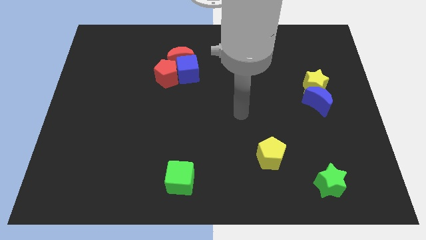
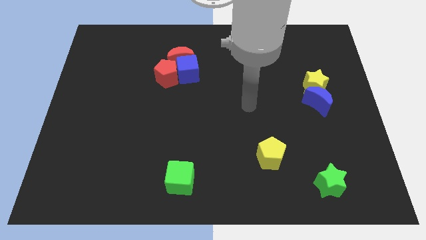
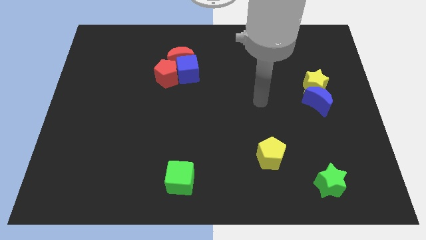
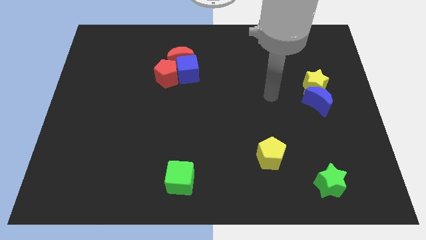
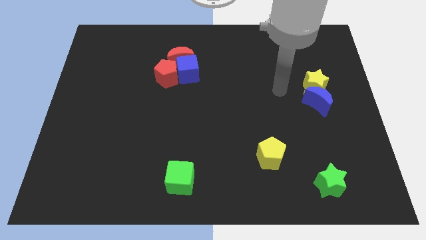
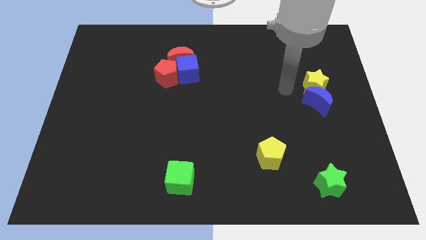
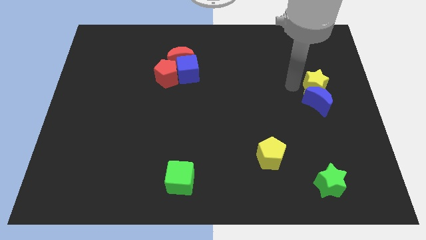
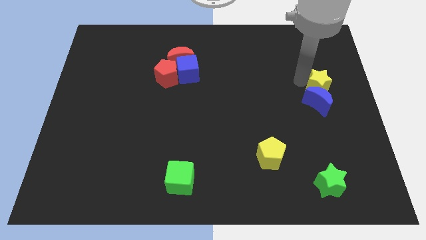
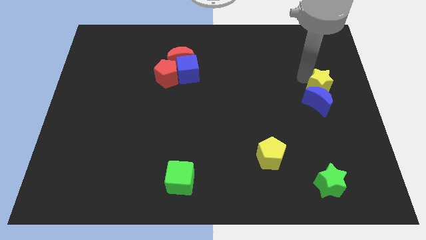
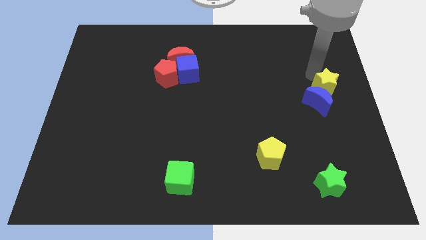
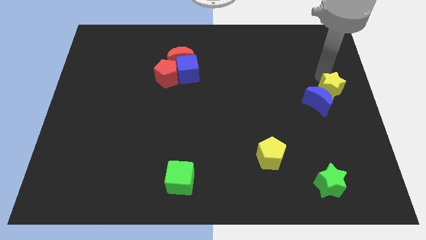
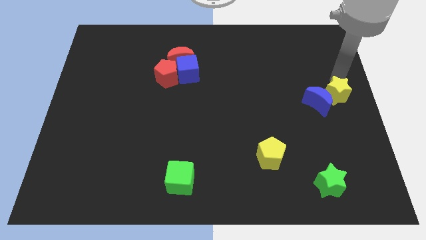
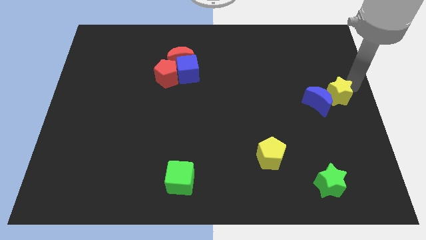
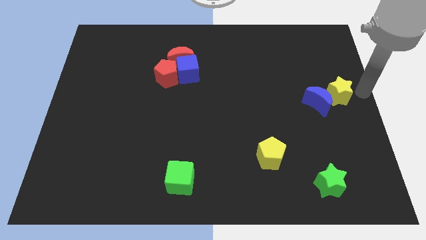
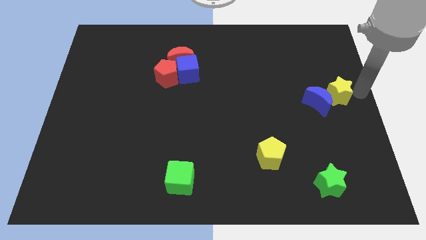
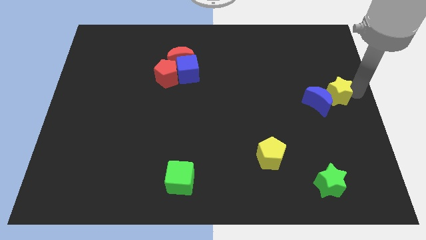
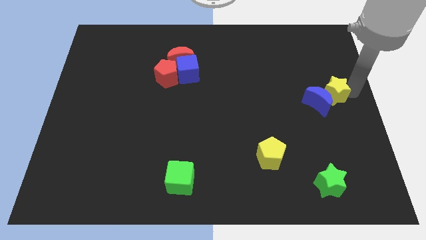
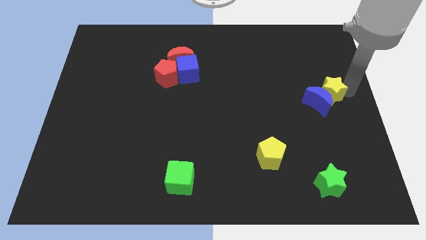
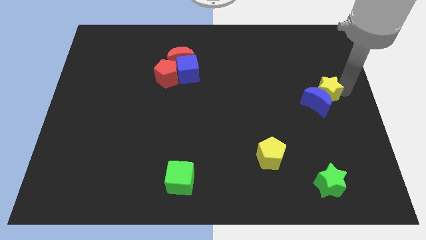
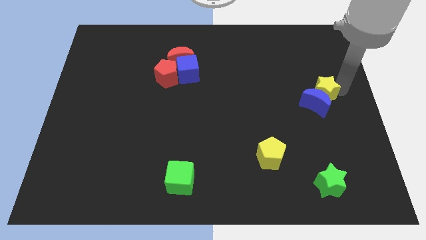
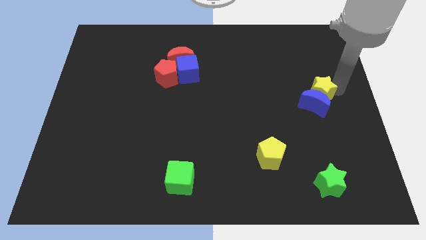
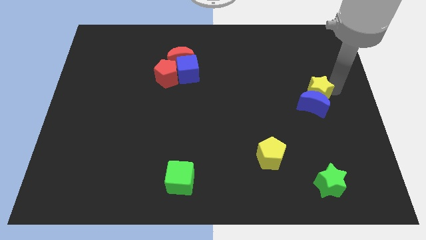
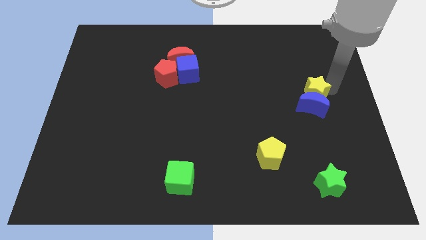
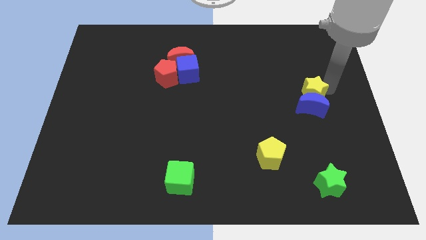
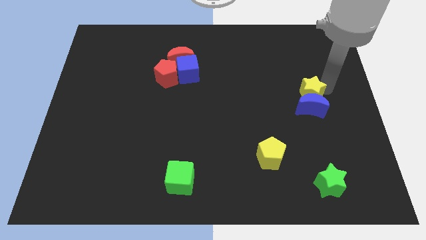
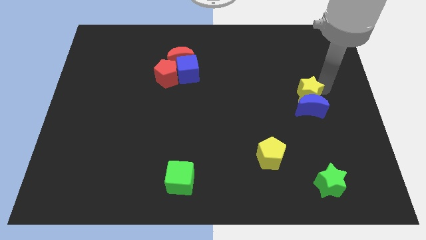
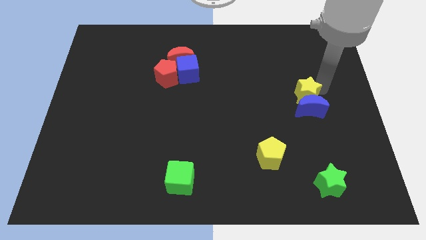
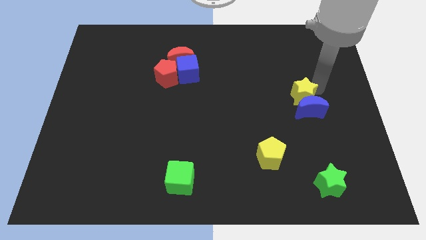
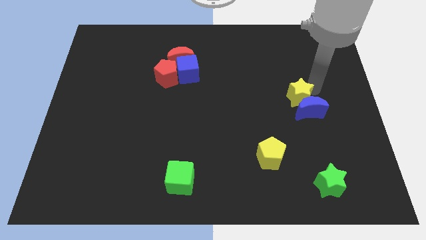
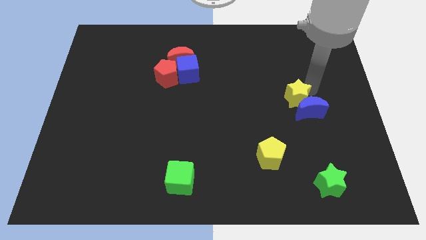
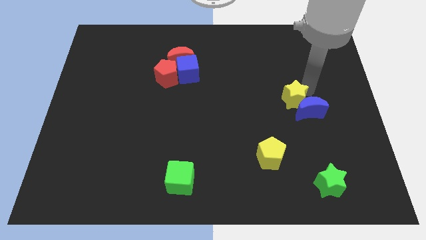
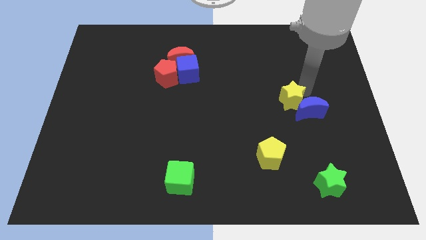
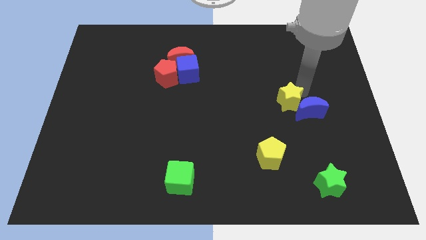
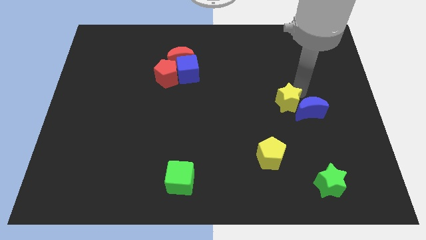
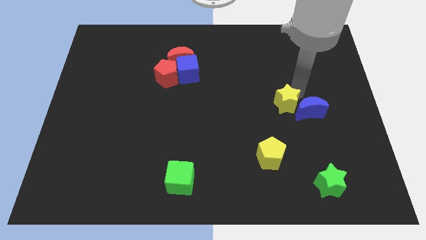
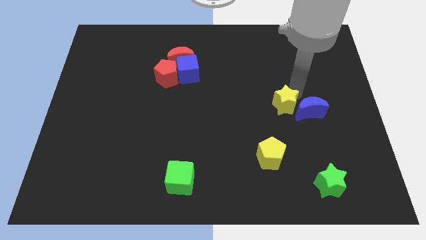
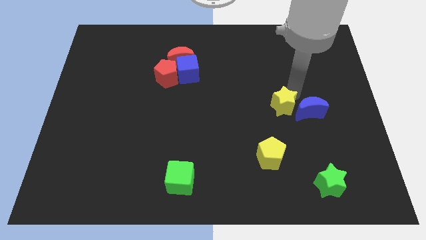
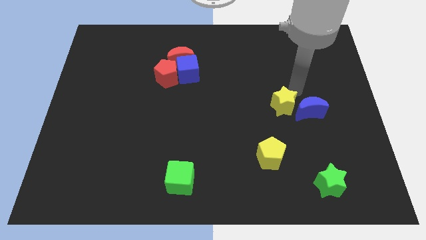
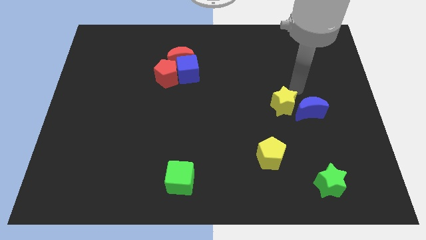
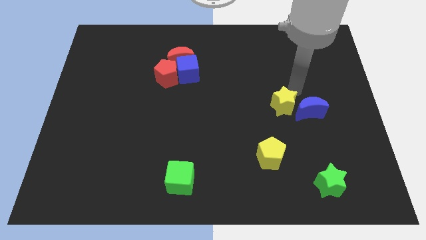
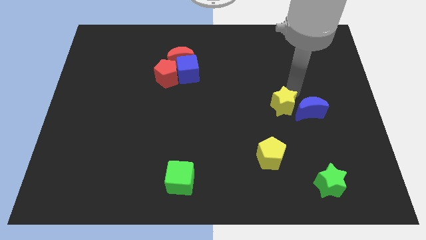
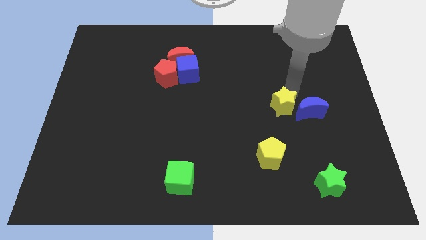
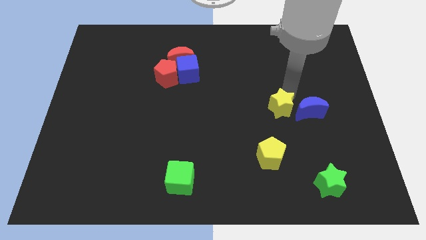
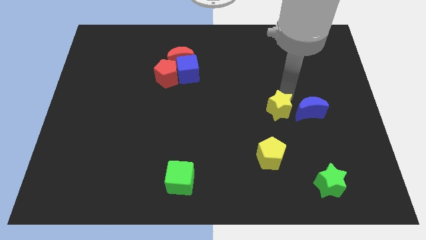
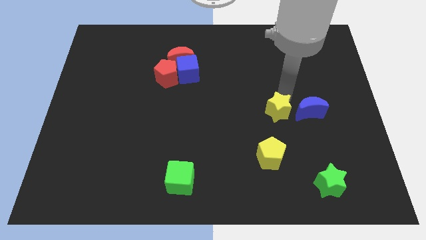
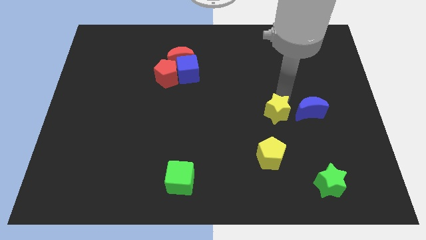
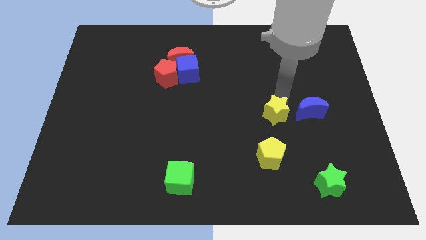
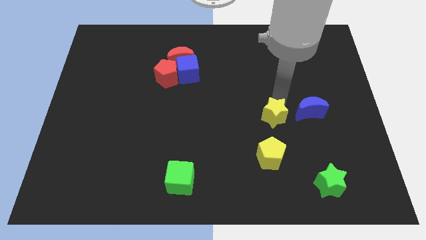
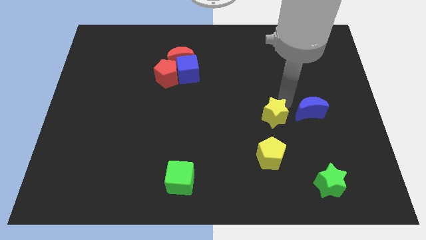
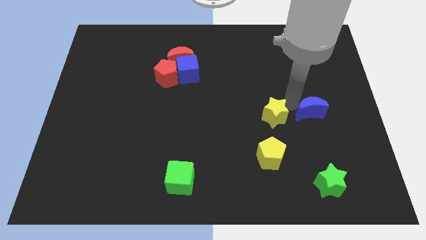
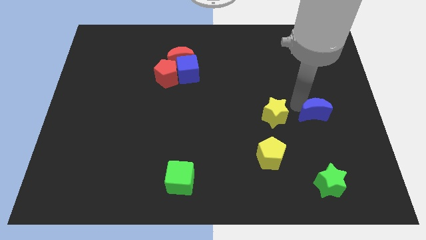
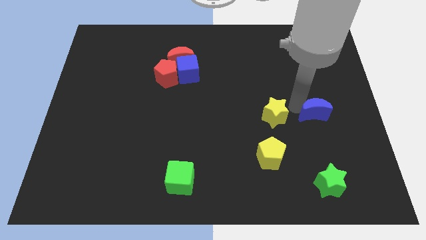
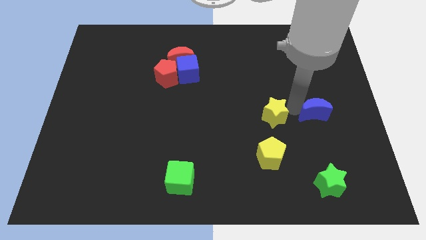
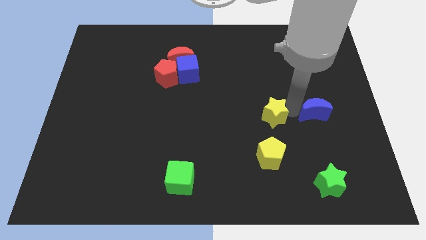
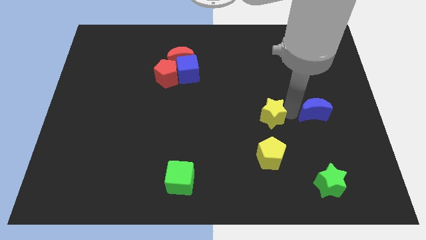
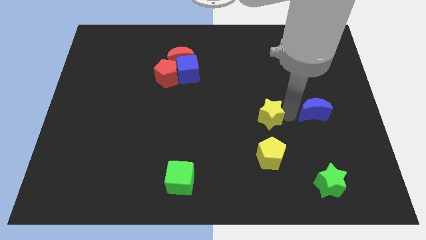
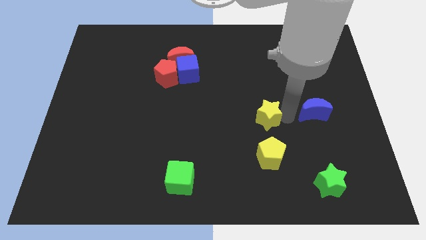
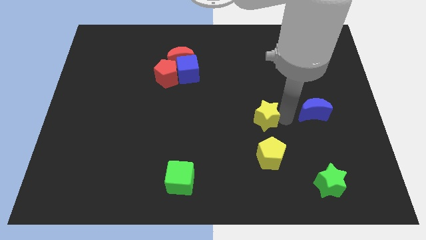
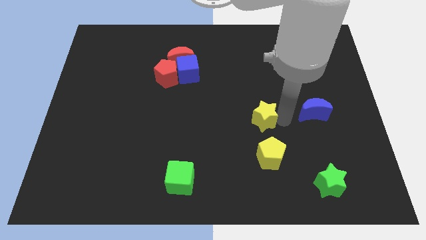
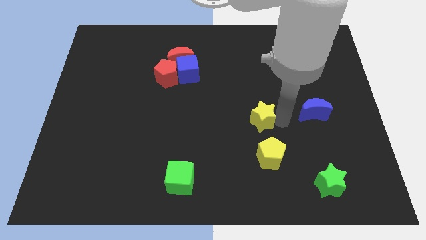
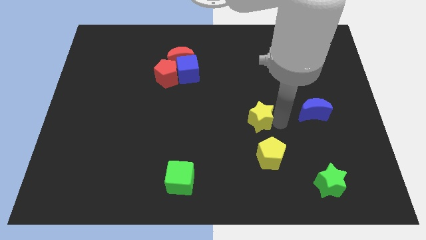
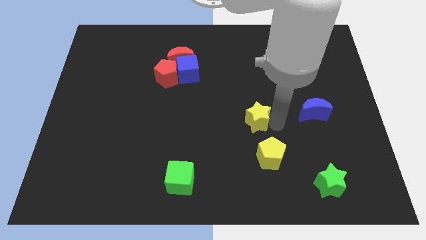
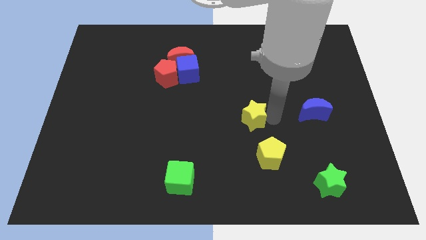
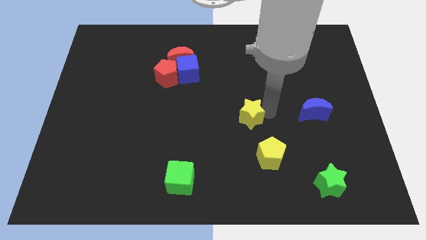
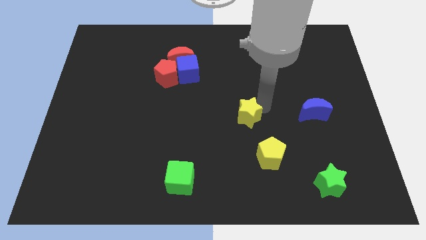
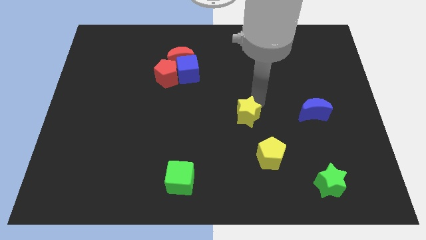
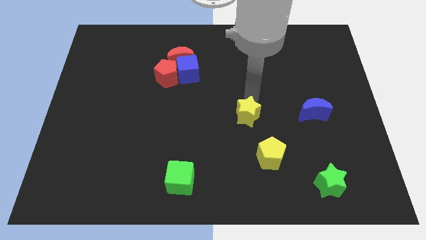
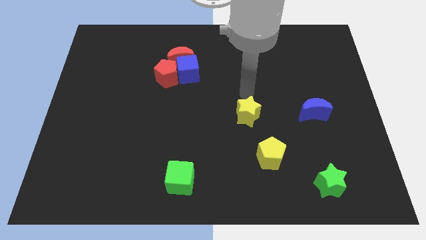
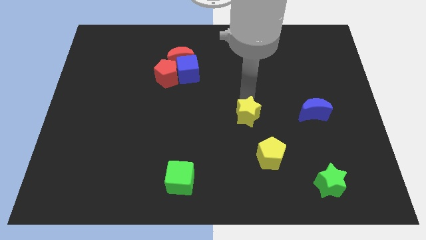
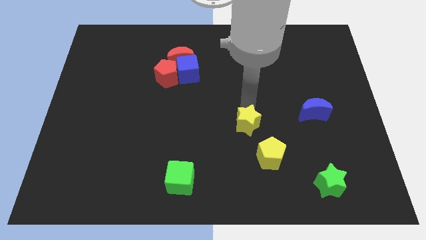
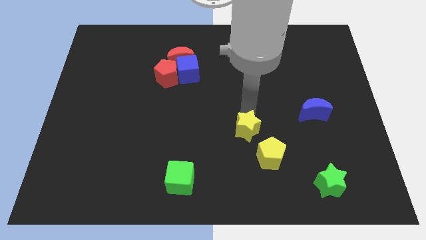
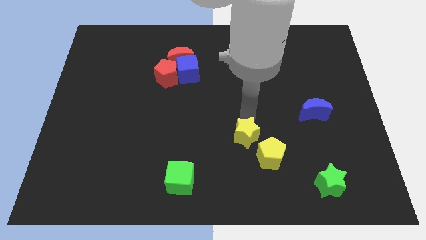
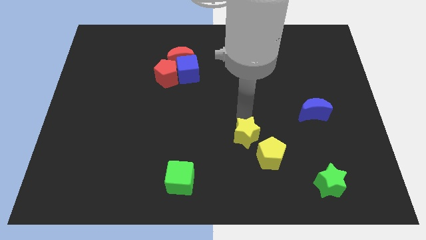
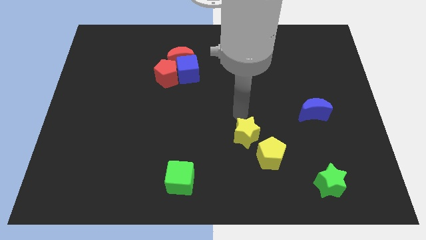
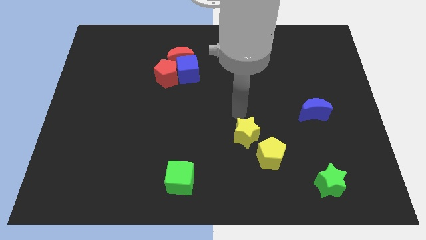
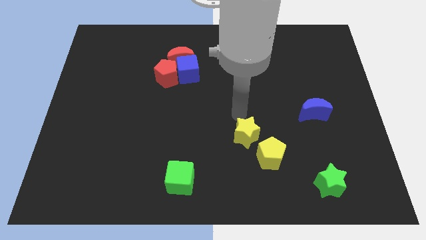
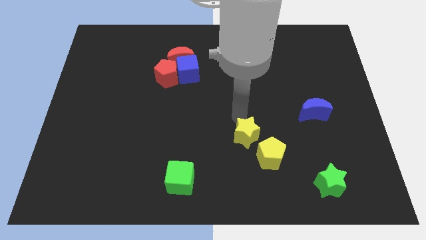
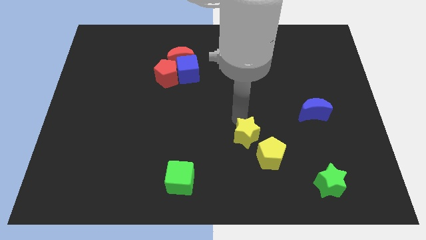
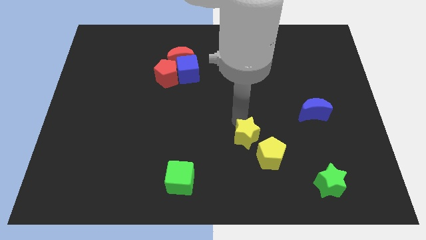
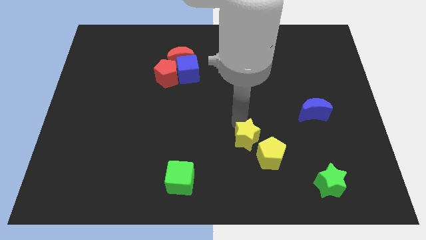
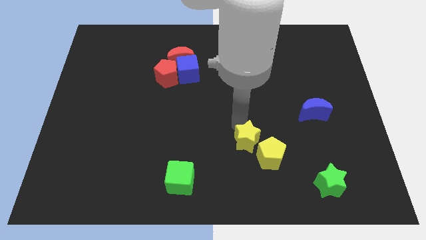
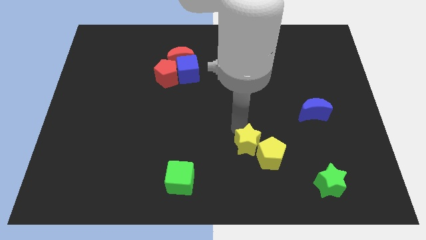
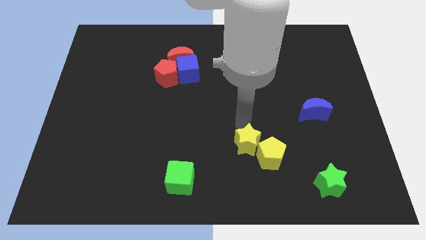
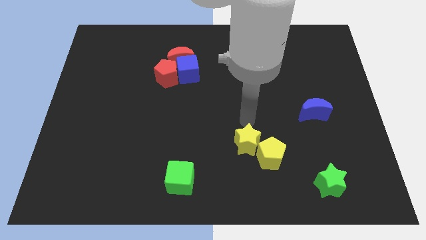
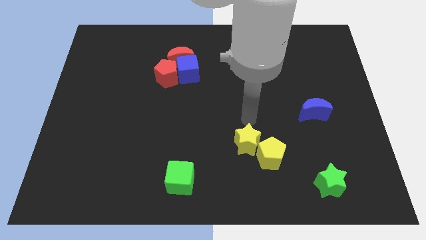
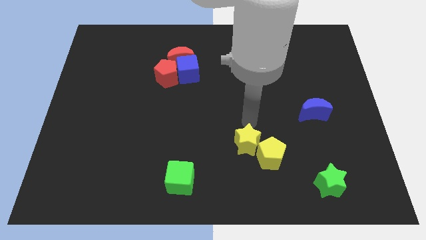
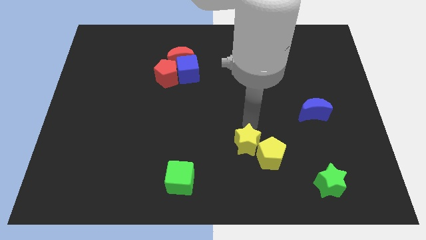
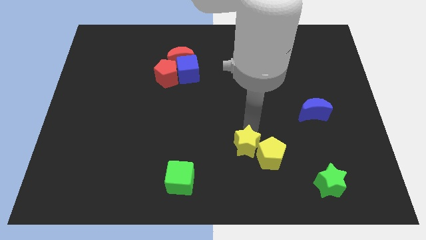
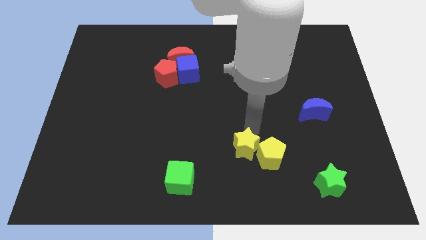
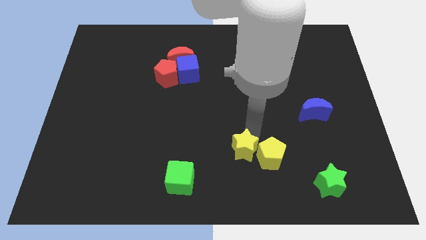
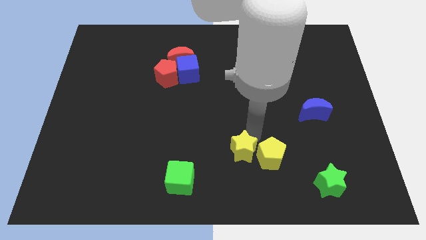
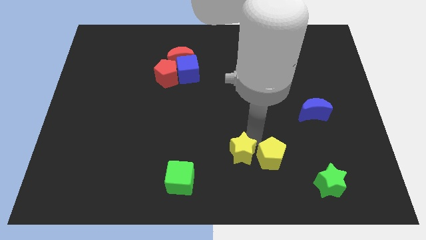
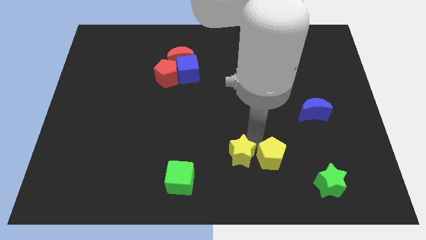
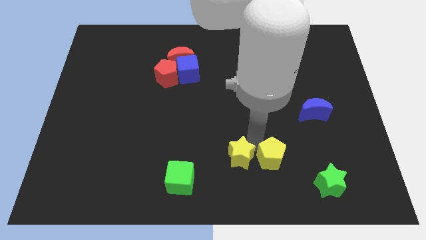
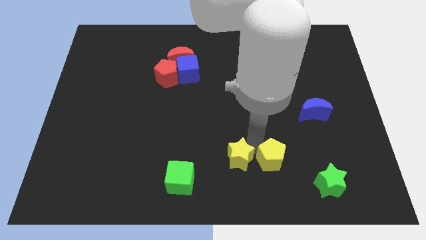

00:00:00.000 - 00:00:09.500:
slide the yellow star to the bottom
